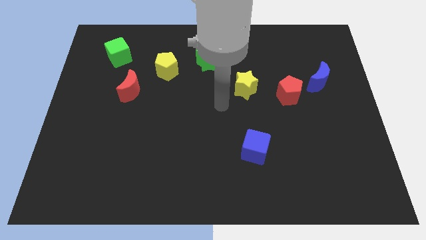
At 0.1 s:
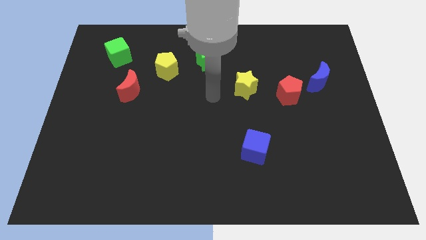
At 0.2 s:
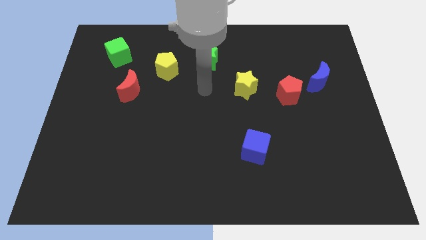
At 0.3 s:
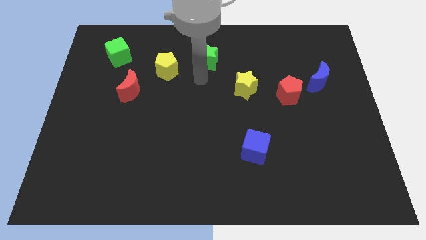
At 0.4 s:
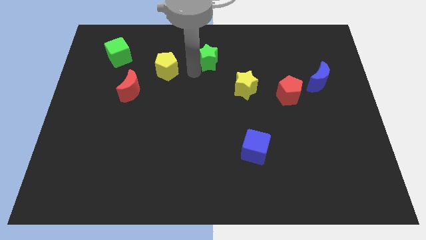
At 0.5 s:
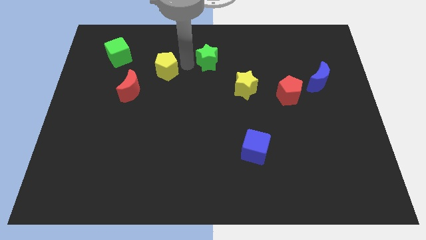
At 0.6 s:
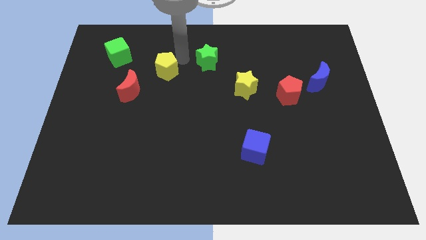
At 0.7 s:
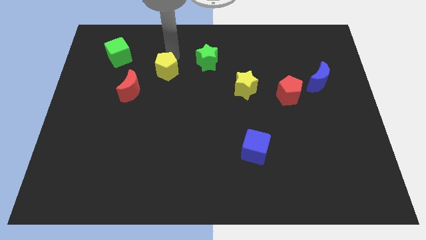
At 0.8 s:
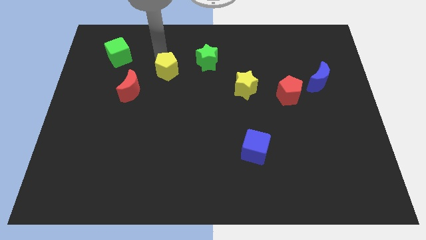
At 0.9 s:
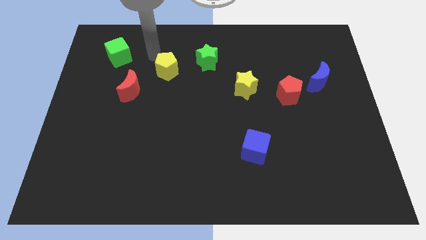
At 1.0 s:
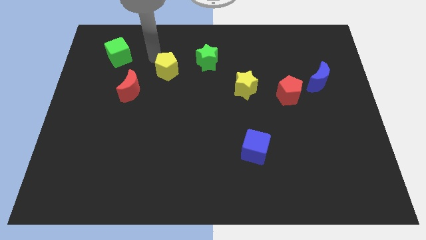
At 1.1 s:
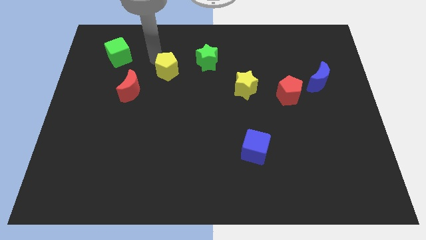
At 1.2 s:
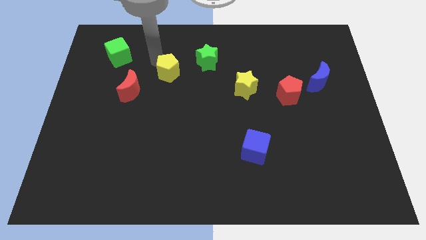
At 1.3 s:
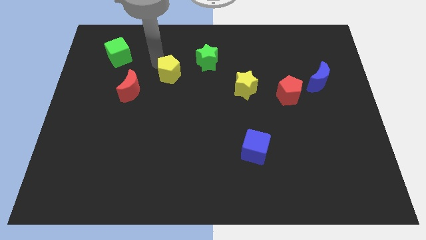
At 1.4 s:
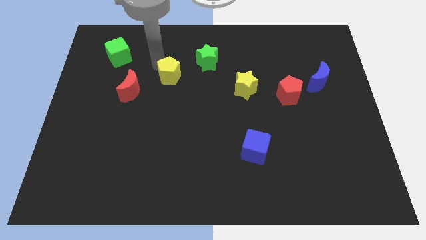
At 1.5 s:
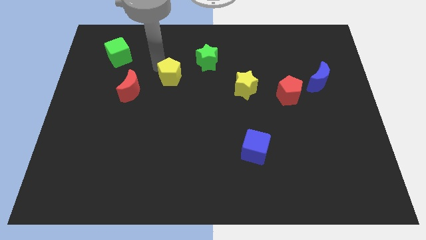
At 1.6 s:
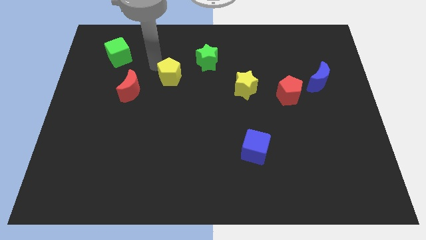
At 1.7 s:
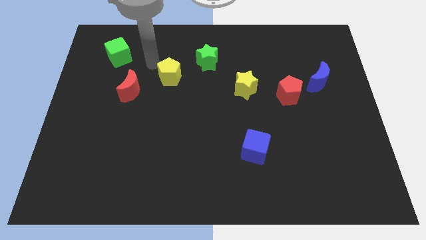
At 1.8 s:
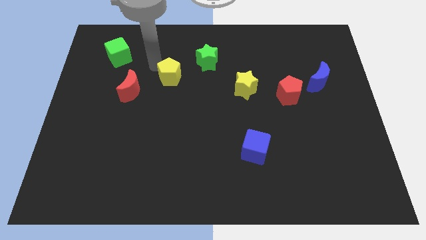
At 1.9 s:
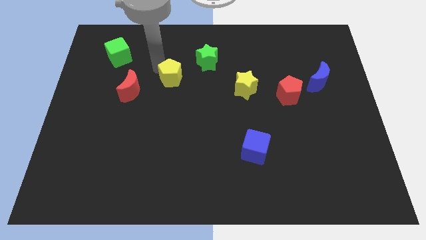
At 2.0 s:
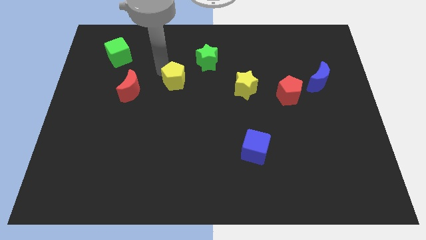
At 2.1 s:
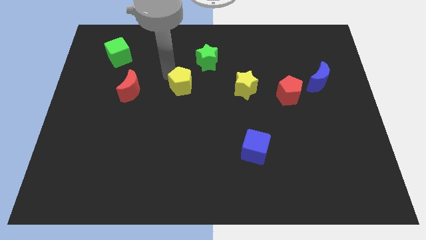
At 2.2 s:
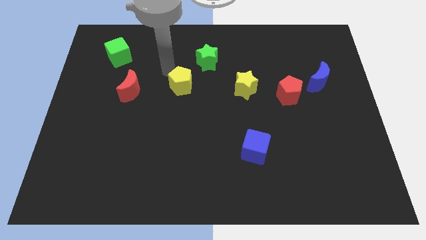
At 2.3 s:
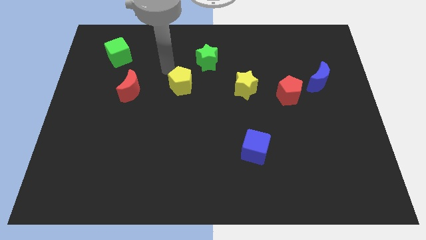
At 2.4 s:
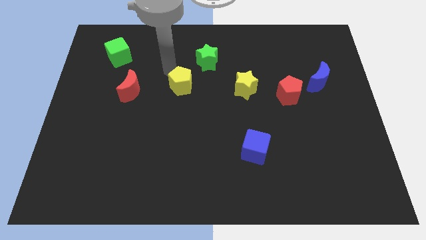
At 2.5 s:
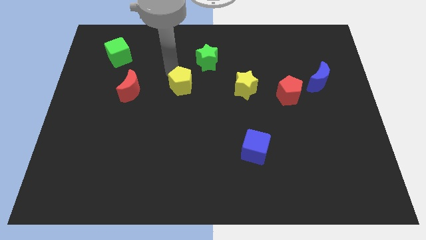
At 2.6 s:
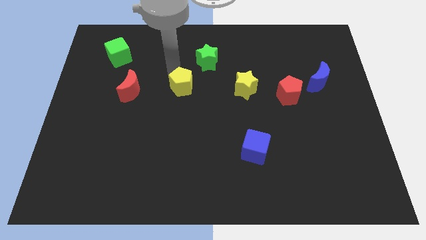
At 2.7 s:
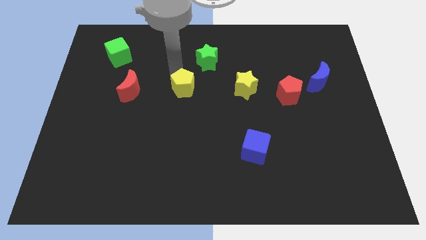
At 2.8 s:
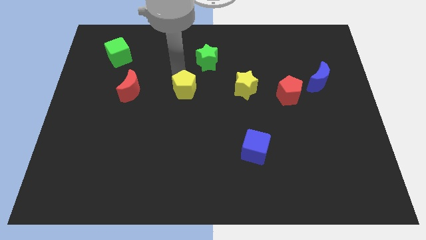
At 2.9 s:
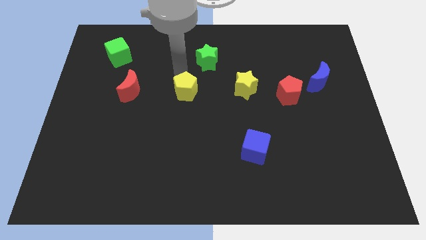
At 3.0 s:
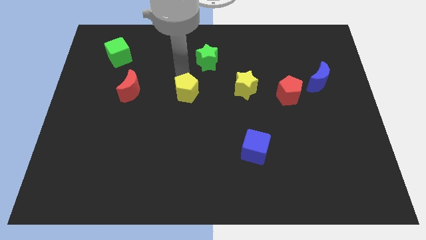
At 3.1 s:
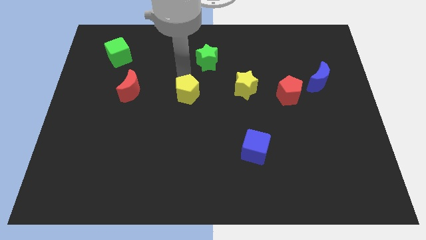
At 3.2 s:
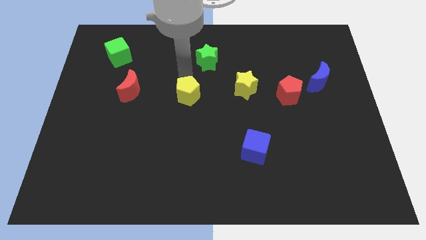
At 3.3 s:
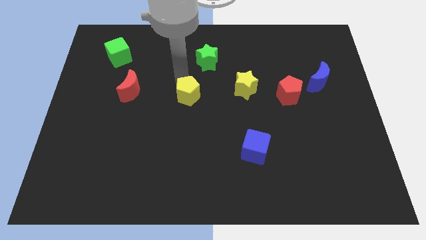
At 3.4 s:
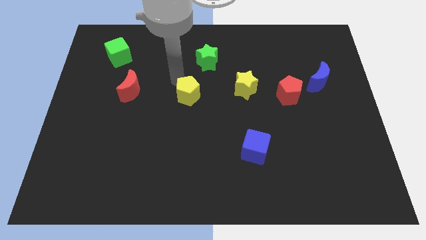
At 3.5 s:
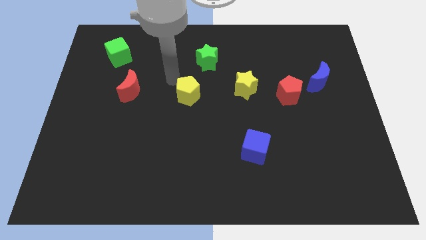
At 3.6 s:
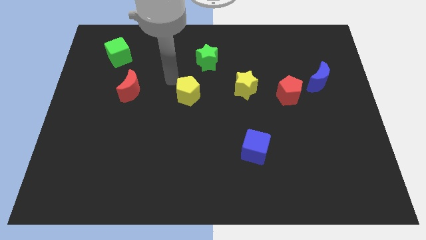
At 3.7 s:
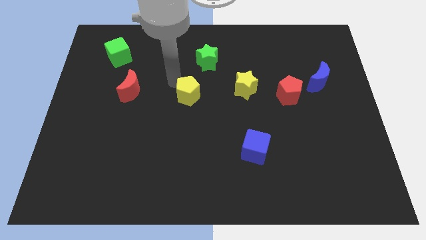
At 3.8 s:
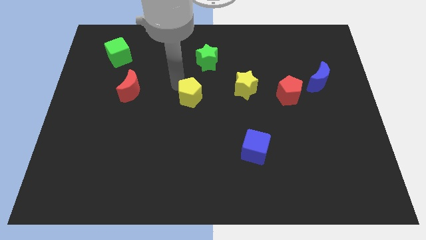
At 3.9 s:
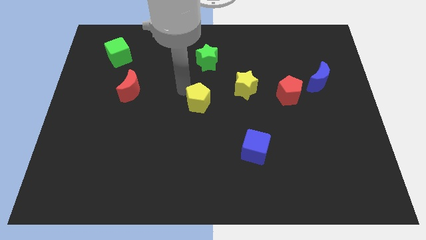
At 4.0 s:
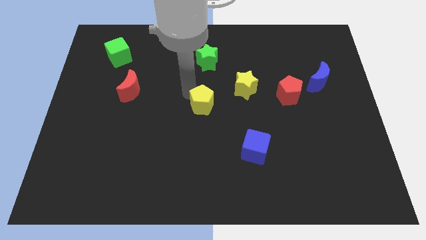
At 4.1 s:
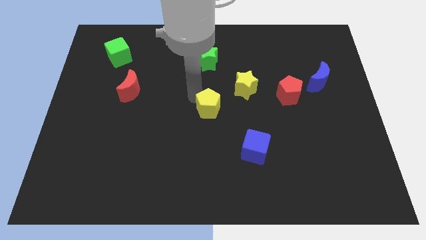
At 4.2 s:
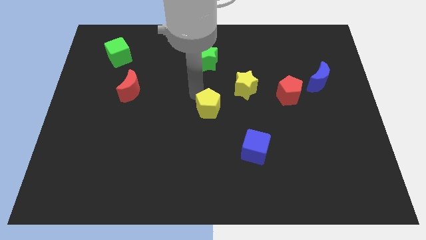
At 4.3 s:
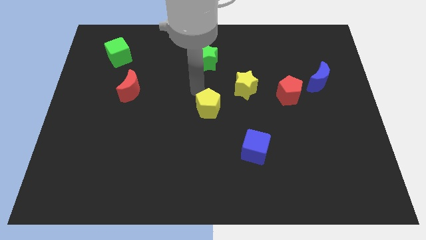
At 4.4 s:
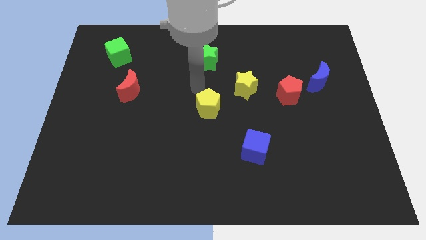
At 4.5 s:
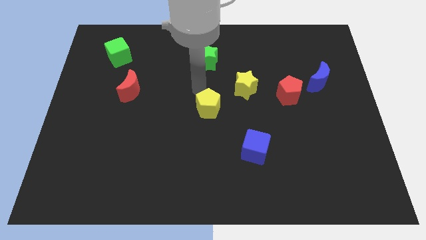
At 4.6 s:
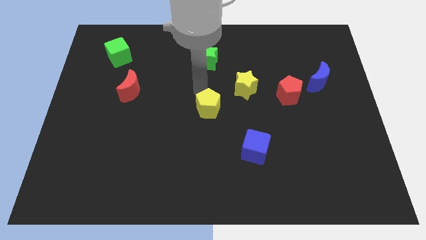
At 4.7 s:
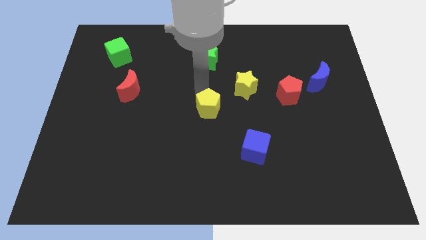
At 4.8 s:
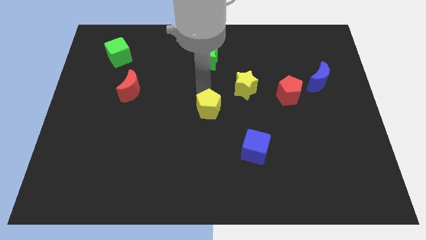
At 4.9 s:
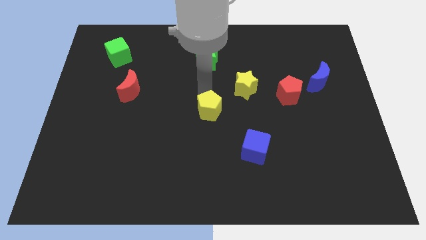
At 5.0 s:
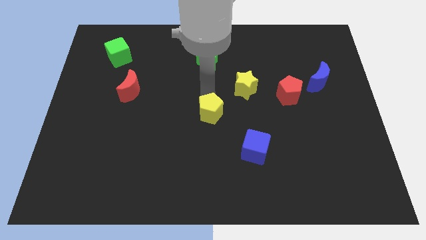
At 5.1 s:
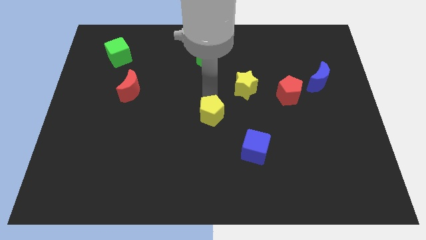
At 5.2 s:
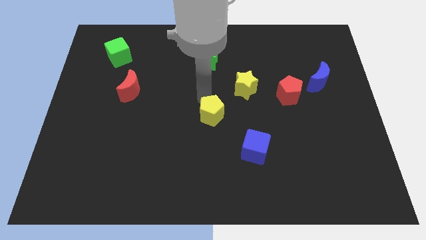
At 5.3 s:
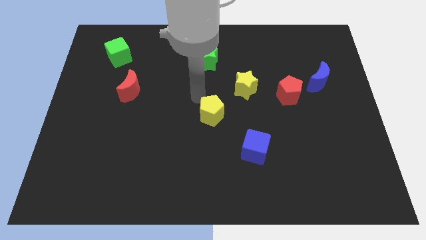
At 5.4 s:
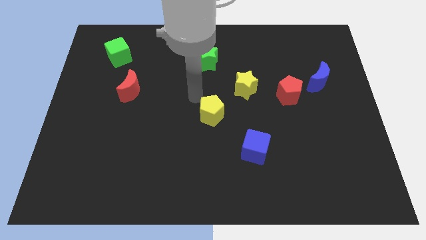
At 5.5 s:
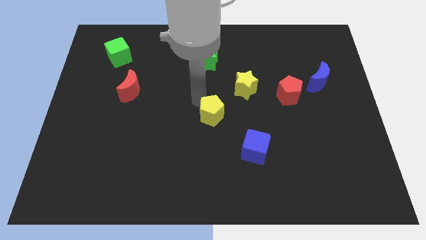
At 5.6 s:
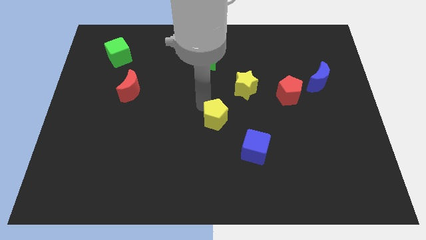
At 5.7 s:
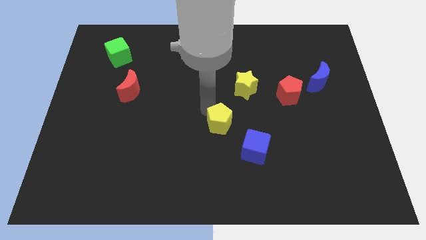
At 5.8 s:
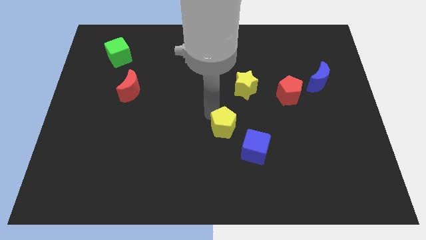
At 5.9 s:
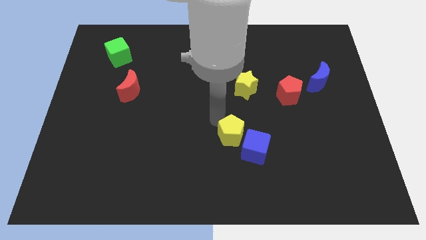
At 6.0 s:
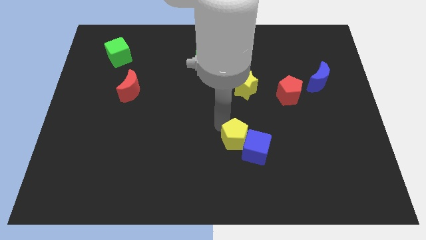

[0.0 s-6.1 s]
push the yellow pentagon towards the blue cube
